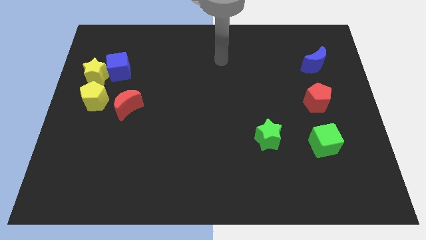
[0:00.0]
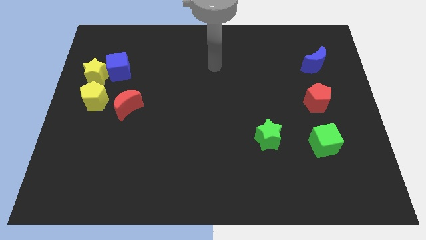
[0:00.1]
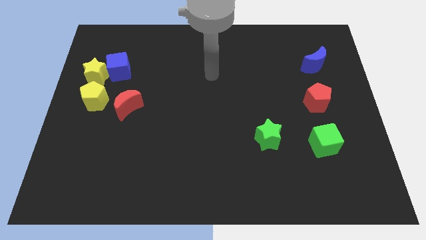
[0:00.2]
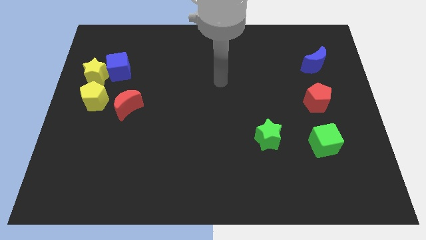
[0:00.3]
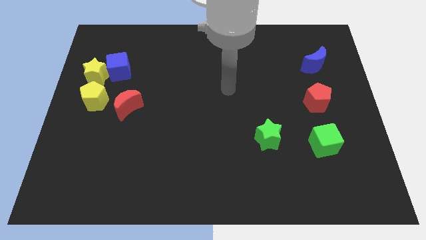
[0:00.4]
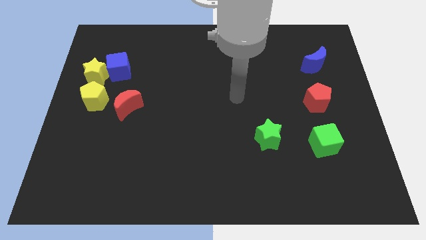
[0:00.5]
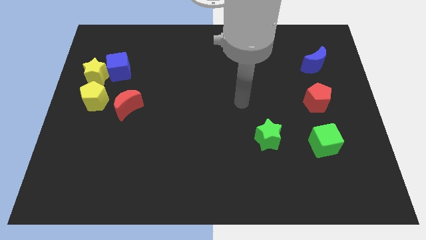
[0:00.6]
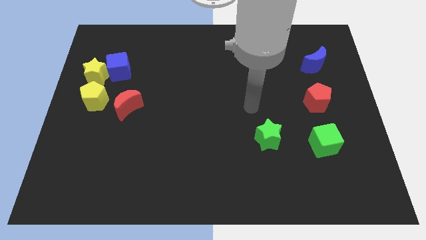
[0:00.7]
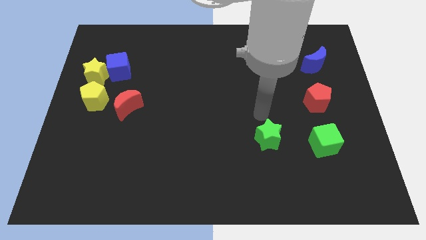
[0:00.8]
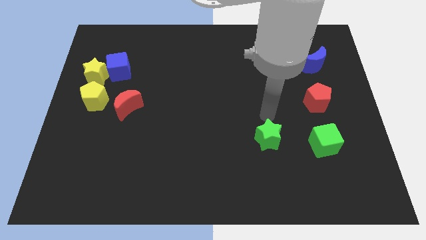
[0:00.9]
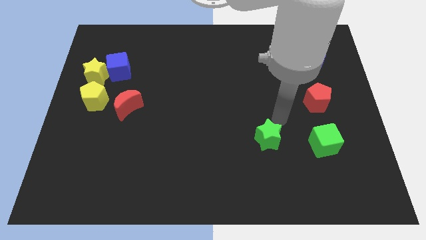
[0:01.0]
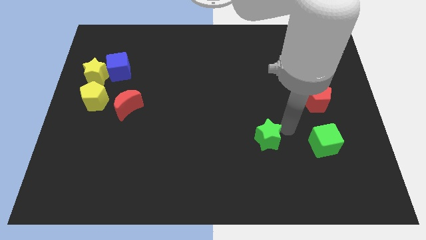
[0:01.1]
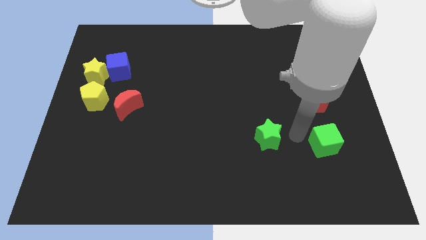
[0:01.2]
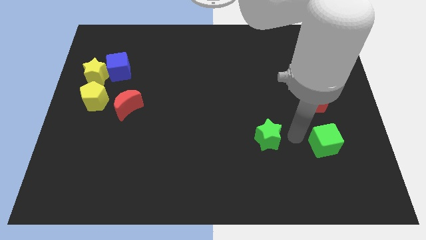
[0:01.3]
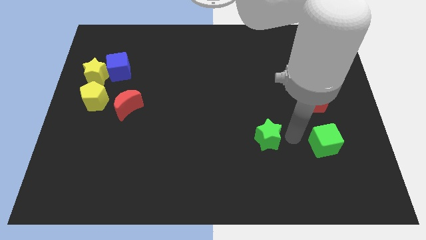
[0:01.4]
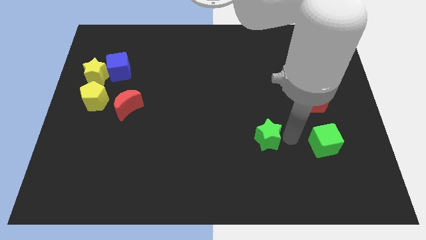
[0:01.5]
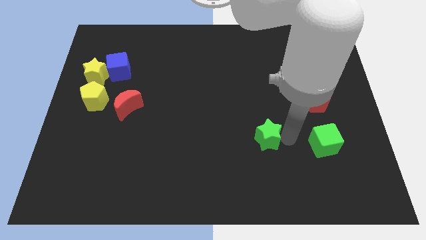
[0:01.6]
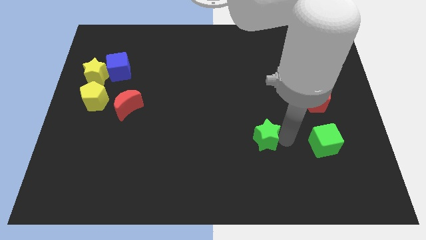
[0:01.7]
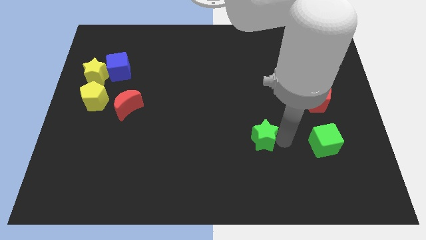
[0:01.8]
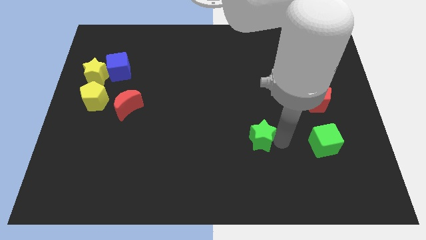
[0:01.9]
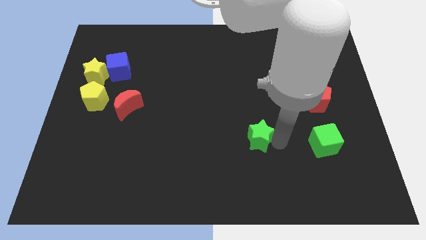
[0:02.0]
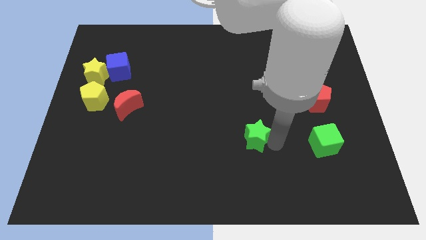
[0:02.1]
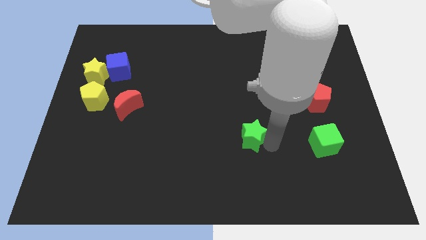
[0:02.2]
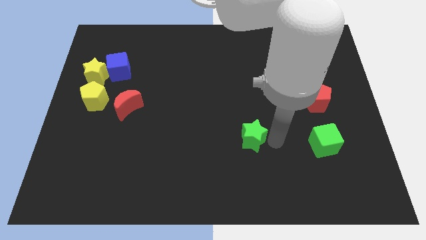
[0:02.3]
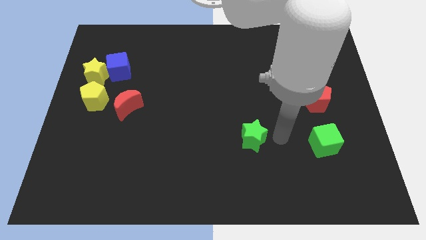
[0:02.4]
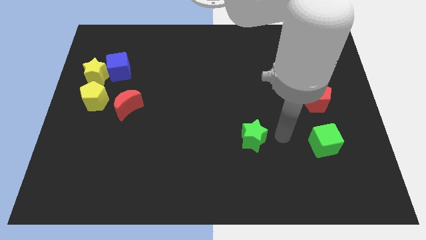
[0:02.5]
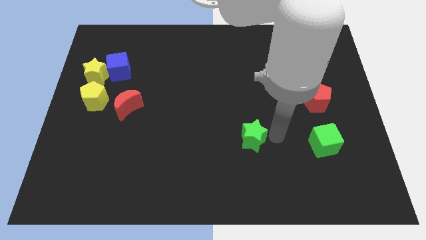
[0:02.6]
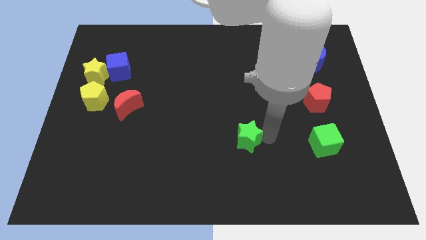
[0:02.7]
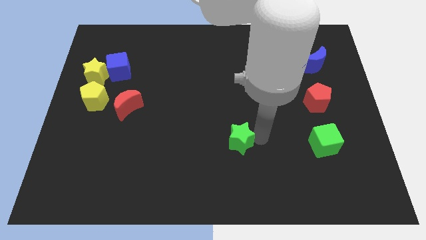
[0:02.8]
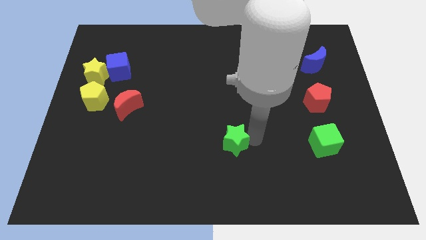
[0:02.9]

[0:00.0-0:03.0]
slide the green star to the left a little bit

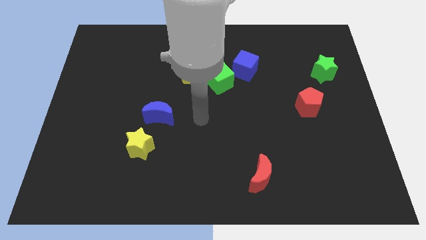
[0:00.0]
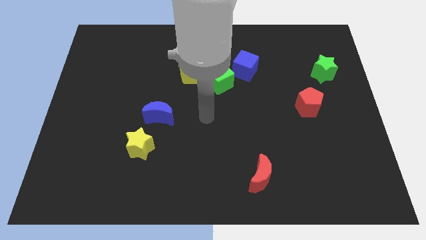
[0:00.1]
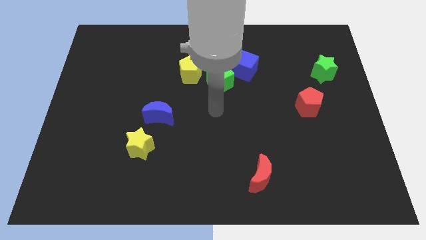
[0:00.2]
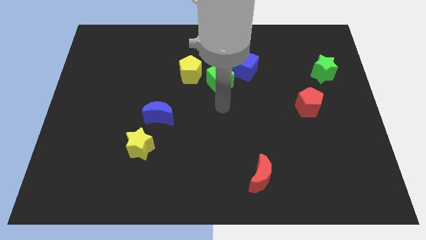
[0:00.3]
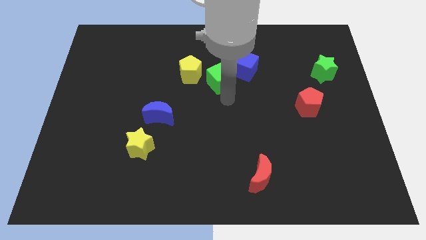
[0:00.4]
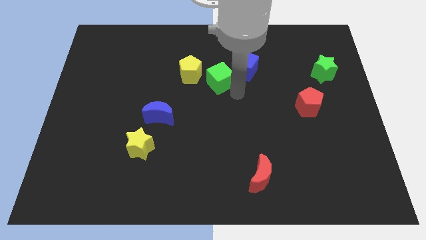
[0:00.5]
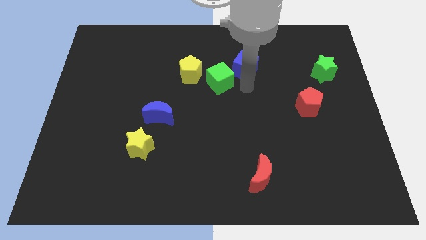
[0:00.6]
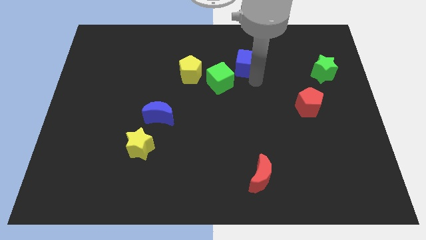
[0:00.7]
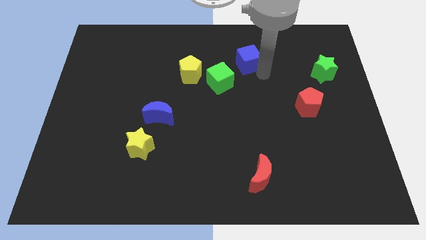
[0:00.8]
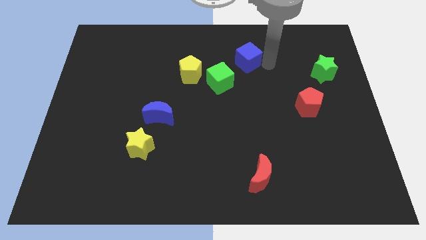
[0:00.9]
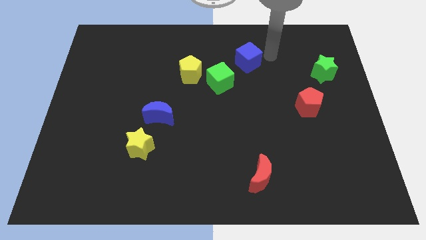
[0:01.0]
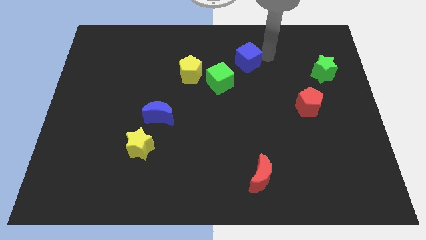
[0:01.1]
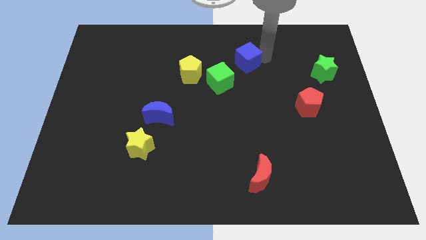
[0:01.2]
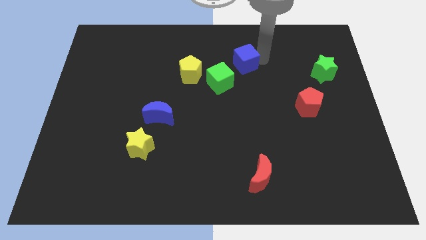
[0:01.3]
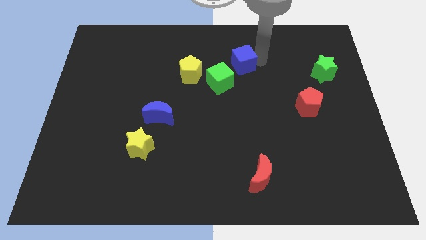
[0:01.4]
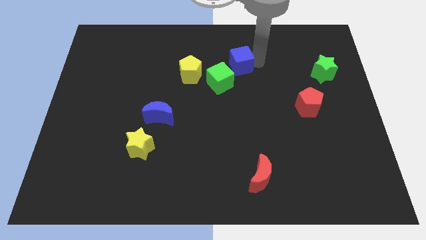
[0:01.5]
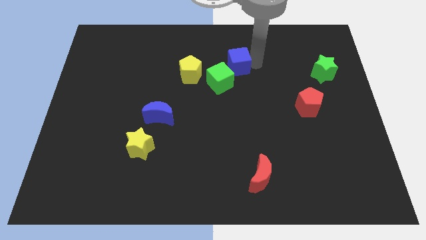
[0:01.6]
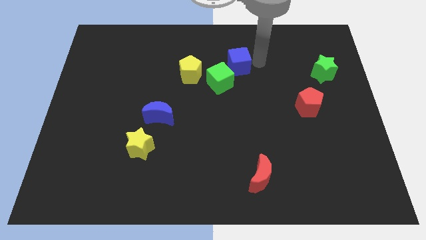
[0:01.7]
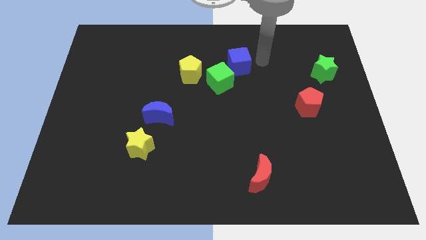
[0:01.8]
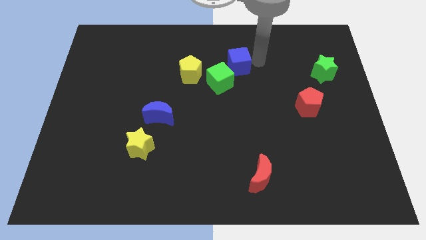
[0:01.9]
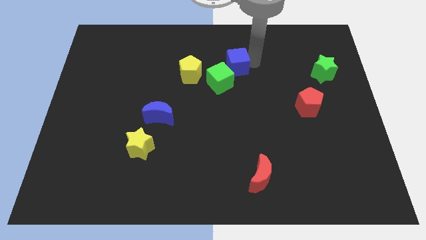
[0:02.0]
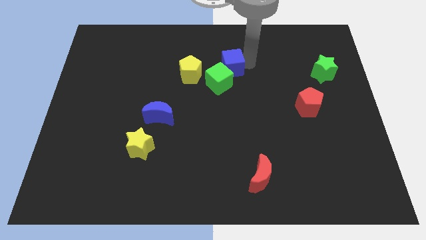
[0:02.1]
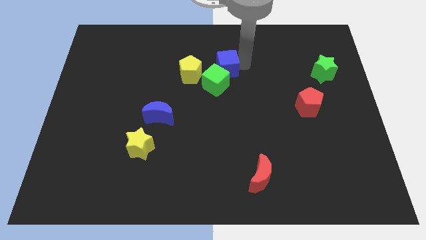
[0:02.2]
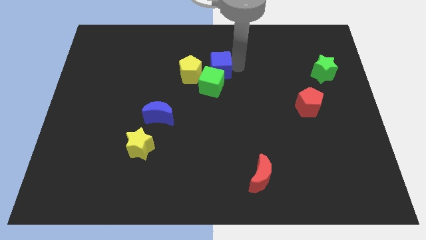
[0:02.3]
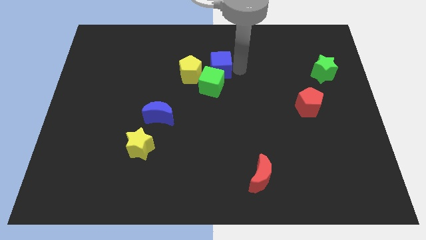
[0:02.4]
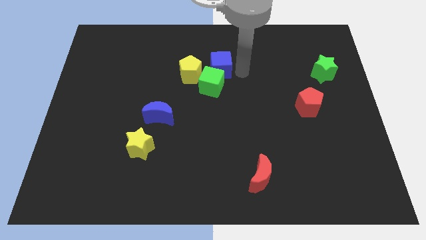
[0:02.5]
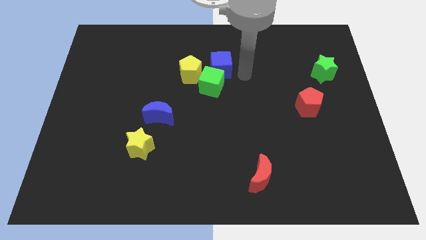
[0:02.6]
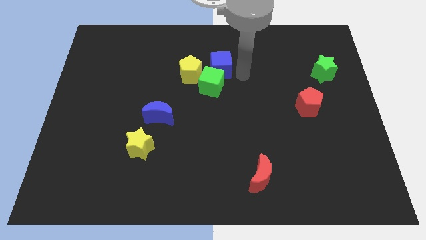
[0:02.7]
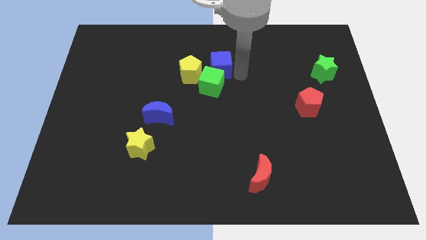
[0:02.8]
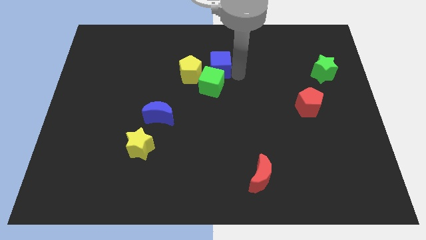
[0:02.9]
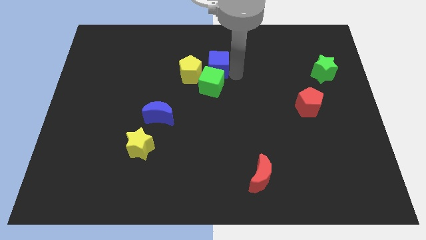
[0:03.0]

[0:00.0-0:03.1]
slightly slide the blue cube left

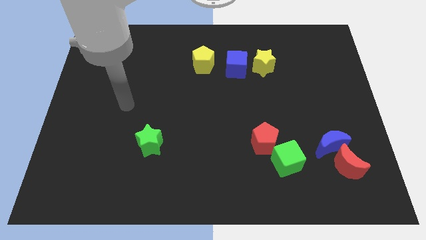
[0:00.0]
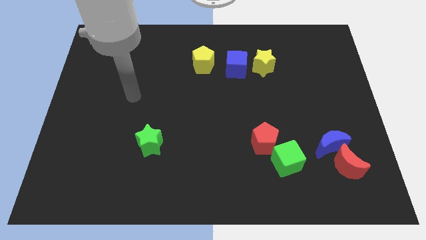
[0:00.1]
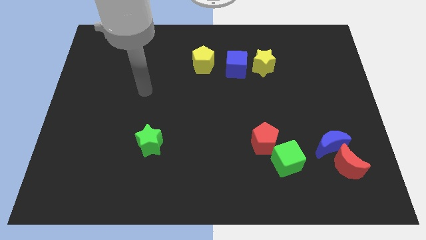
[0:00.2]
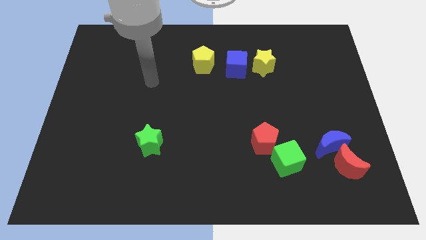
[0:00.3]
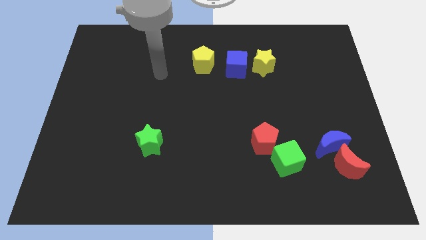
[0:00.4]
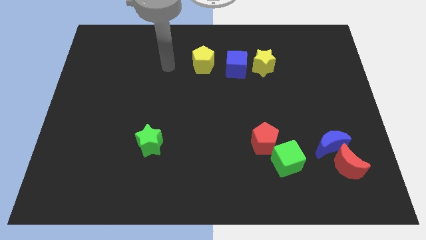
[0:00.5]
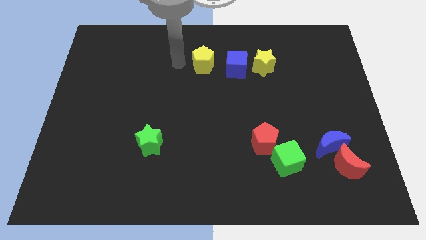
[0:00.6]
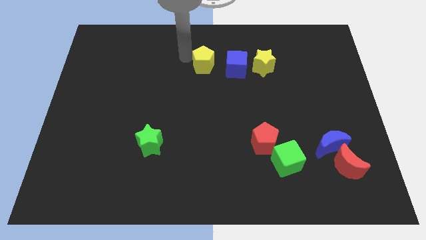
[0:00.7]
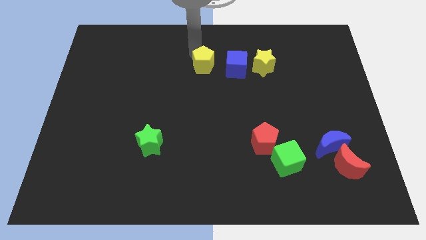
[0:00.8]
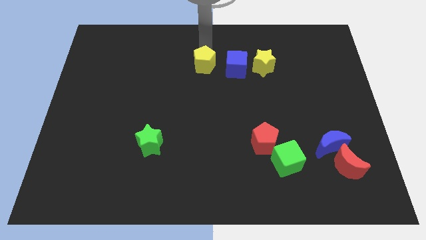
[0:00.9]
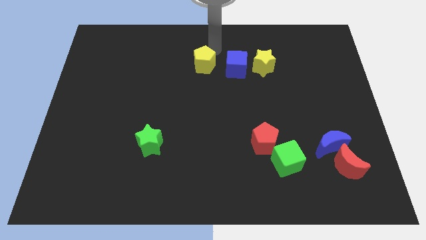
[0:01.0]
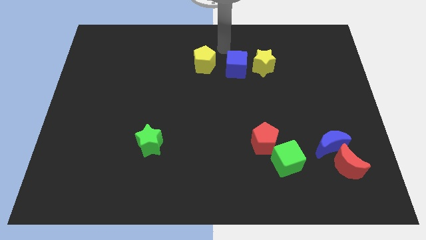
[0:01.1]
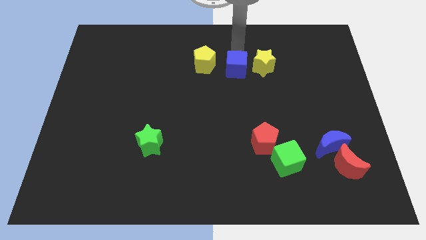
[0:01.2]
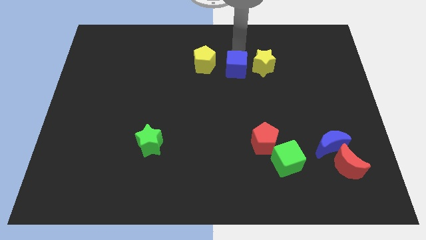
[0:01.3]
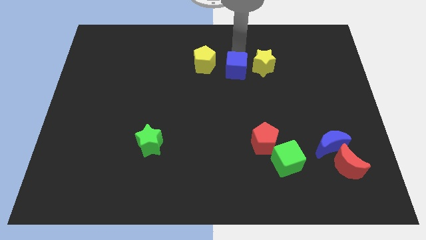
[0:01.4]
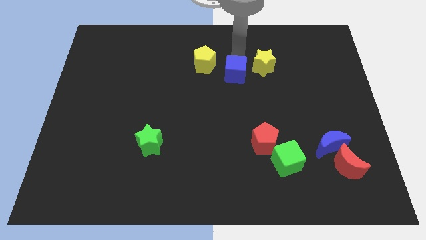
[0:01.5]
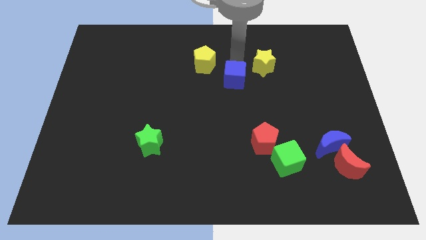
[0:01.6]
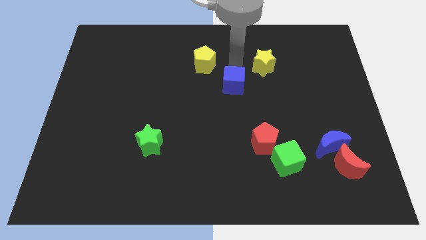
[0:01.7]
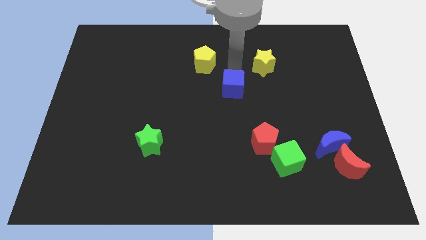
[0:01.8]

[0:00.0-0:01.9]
push the blue cube down a little bit
